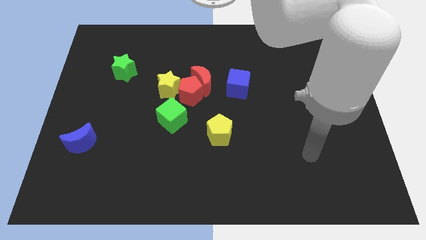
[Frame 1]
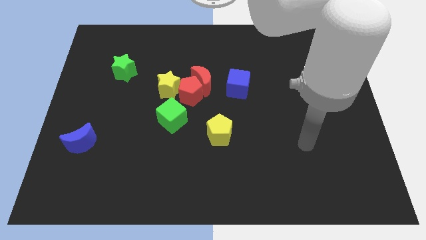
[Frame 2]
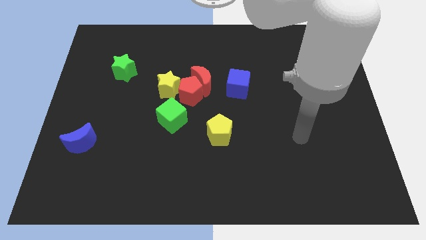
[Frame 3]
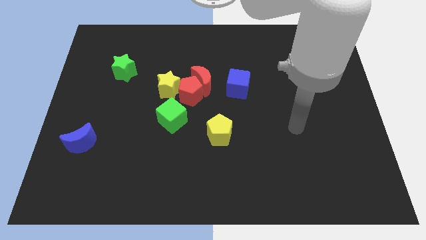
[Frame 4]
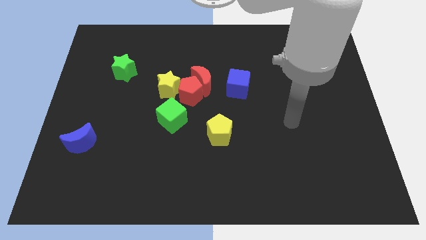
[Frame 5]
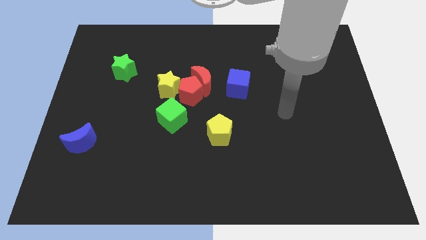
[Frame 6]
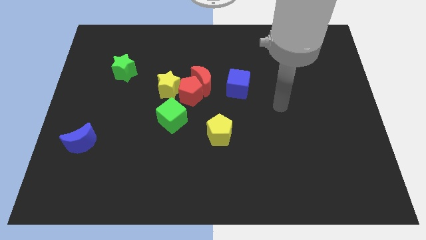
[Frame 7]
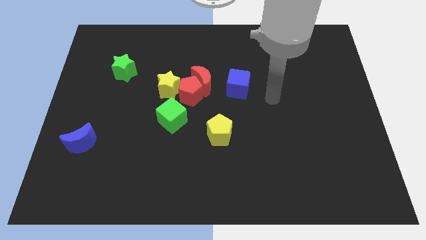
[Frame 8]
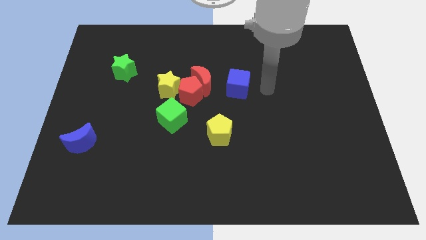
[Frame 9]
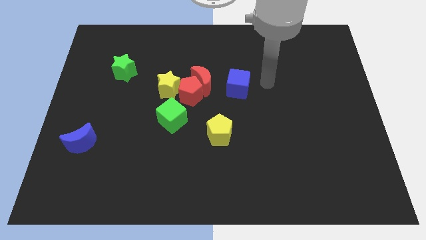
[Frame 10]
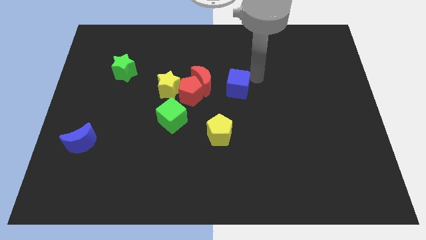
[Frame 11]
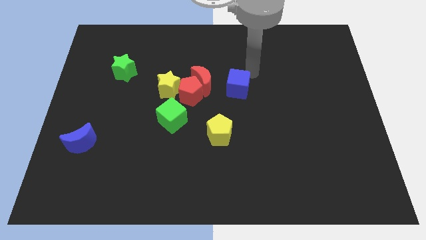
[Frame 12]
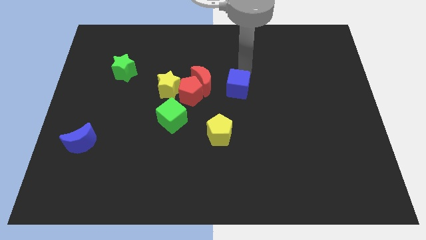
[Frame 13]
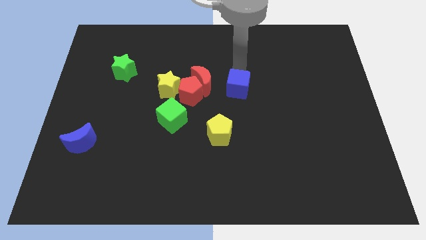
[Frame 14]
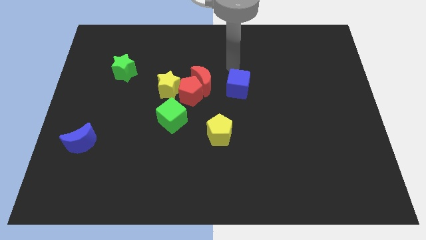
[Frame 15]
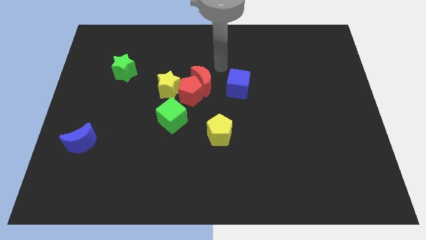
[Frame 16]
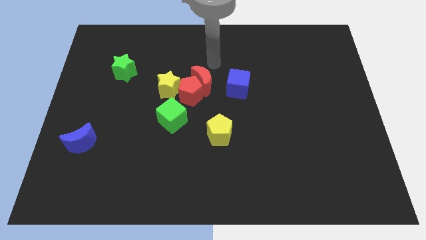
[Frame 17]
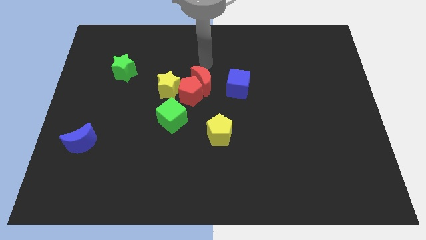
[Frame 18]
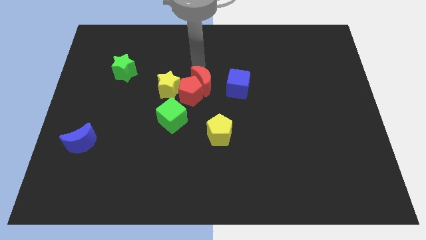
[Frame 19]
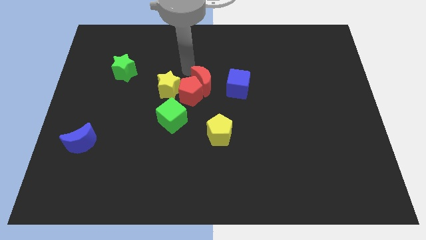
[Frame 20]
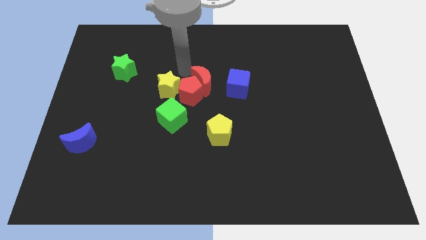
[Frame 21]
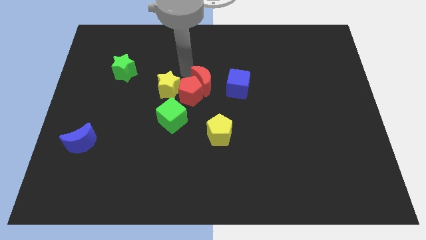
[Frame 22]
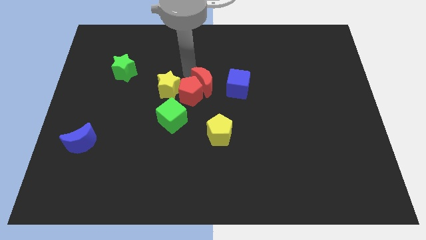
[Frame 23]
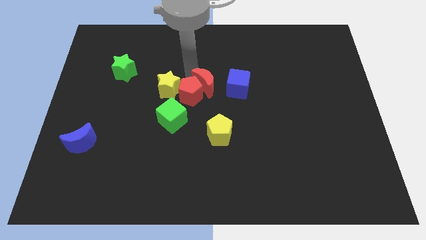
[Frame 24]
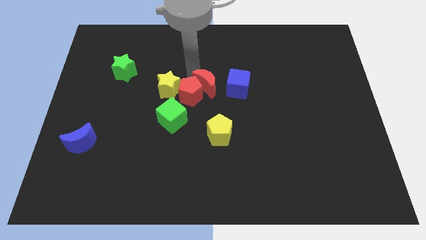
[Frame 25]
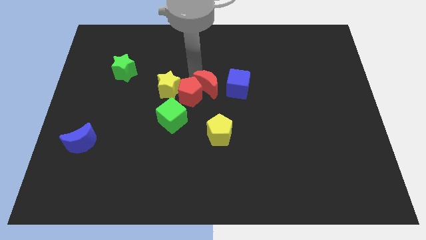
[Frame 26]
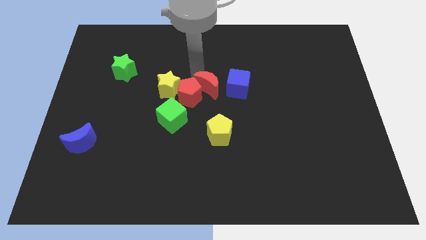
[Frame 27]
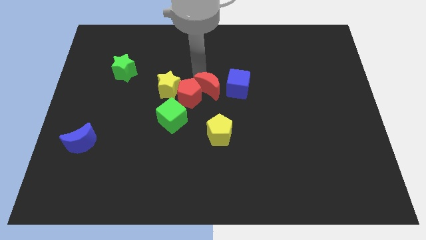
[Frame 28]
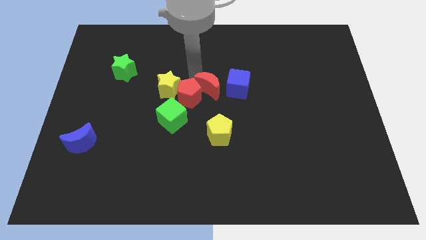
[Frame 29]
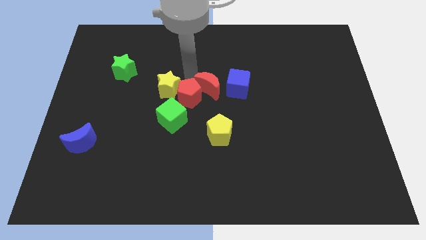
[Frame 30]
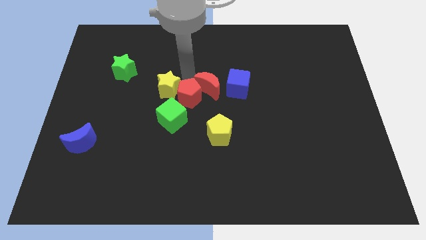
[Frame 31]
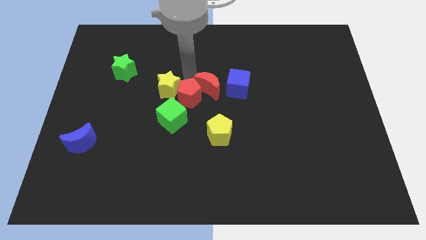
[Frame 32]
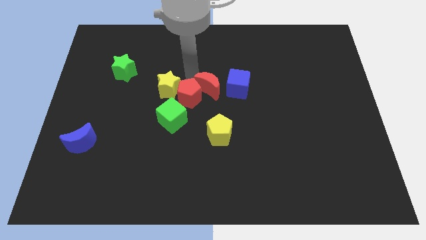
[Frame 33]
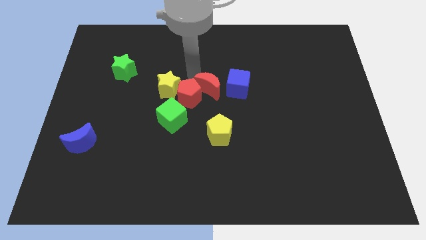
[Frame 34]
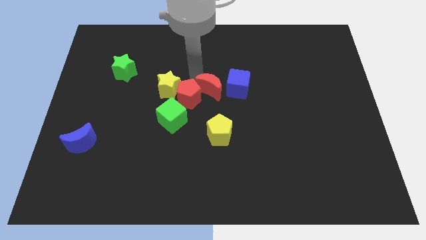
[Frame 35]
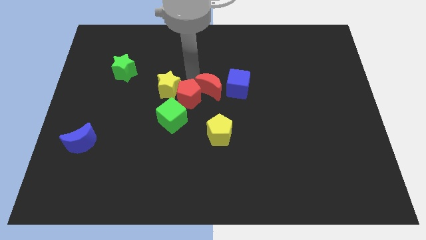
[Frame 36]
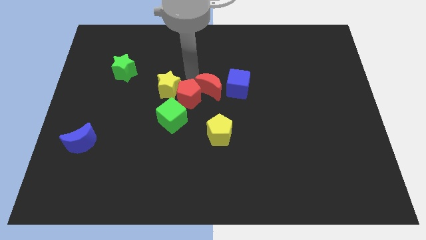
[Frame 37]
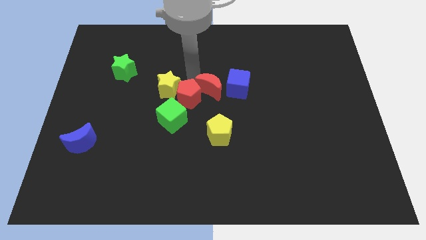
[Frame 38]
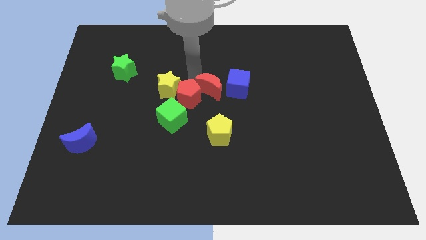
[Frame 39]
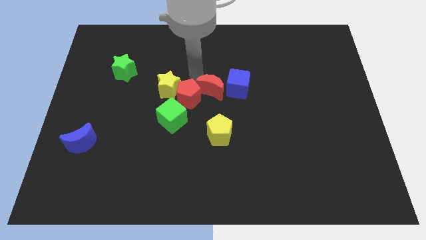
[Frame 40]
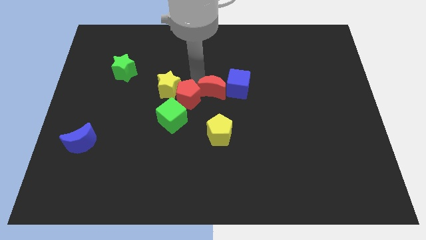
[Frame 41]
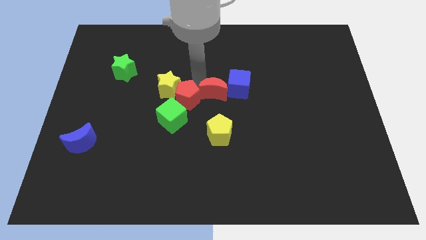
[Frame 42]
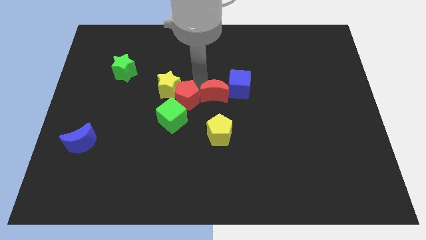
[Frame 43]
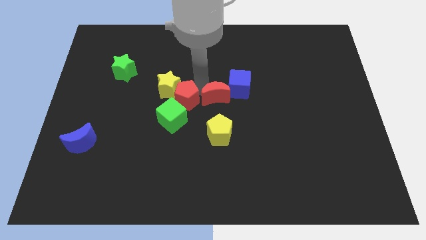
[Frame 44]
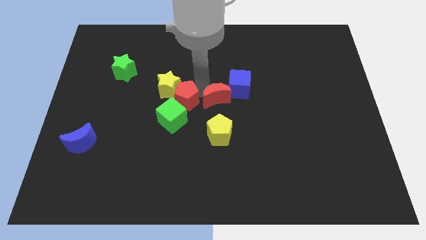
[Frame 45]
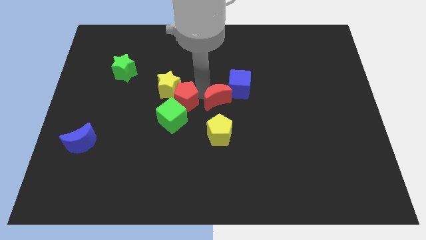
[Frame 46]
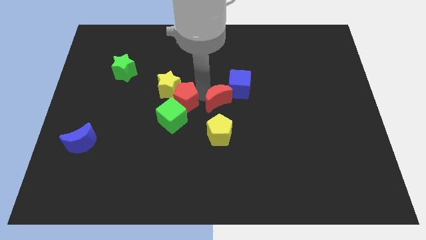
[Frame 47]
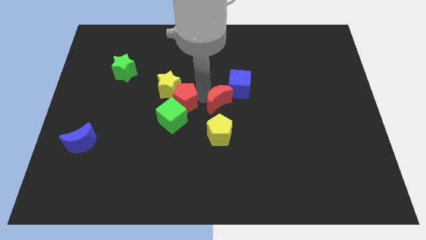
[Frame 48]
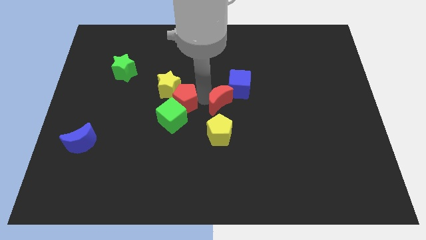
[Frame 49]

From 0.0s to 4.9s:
move the red moon diagonally downwards and to the right somewhat

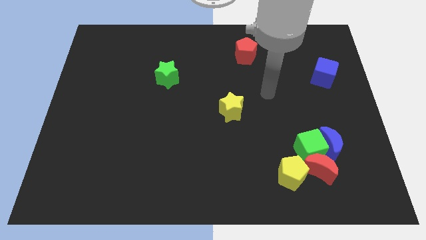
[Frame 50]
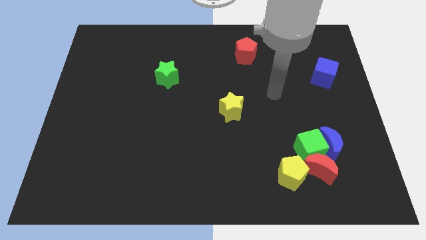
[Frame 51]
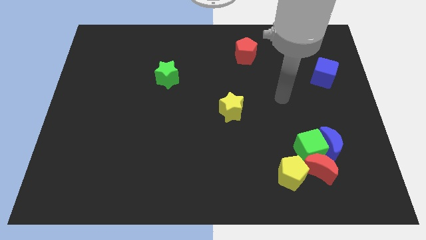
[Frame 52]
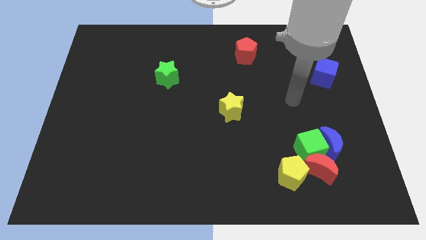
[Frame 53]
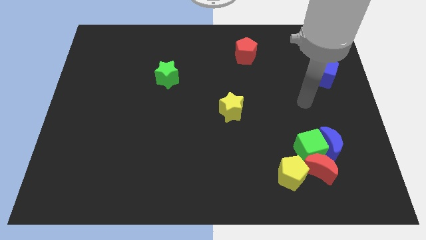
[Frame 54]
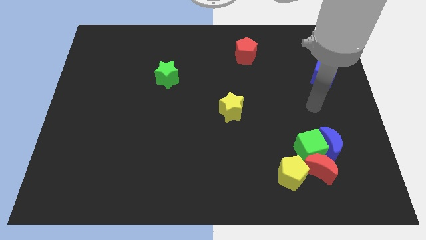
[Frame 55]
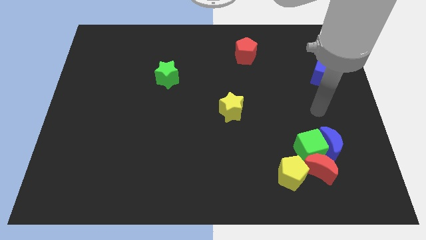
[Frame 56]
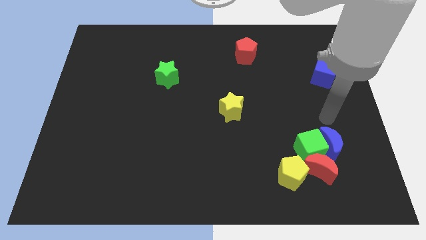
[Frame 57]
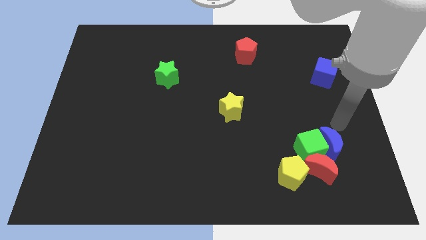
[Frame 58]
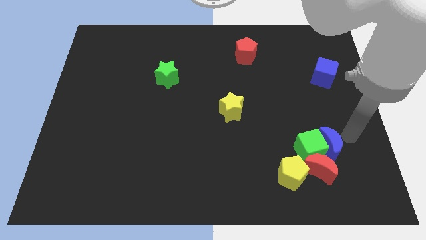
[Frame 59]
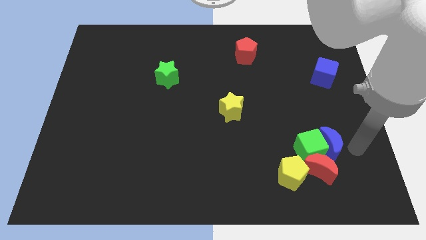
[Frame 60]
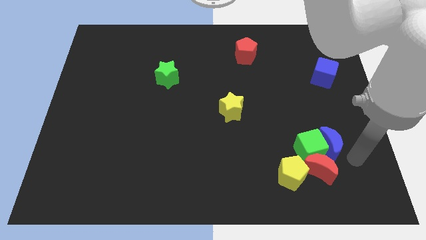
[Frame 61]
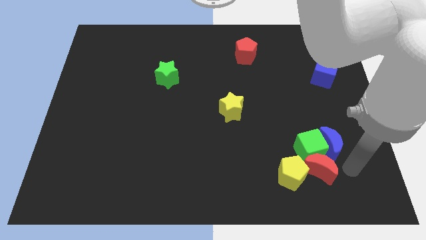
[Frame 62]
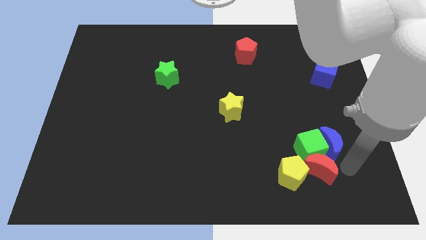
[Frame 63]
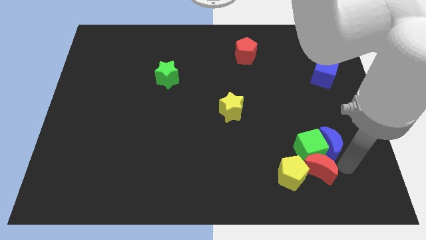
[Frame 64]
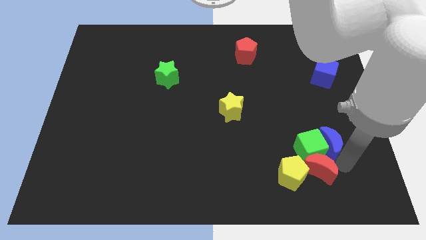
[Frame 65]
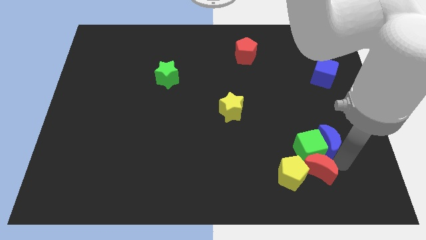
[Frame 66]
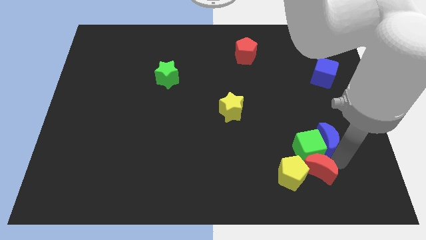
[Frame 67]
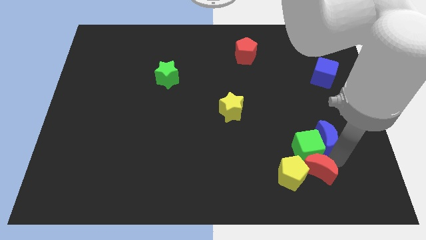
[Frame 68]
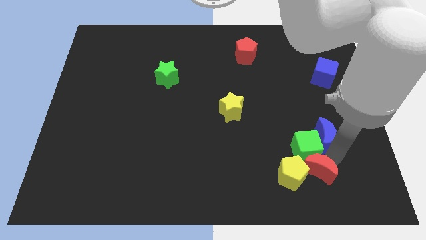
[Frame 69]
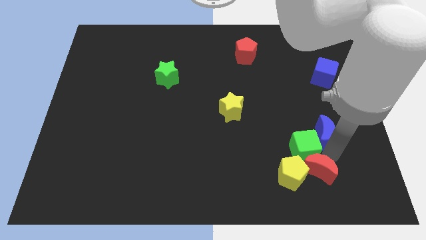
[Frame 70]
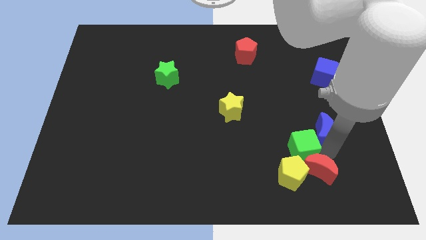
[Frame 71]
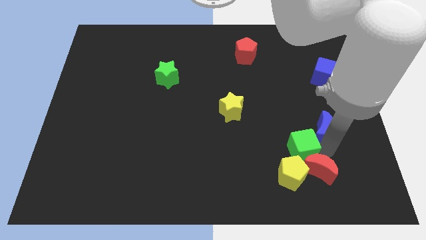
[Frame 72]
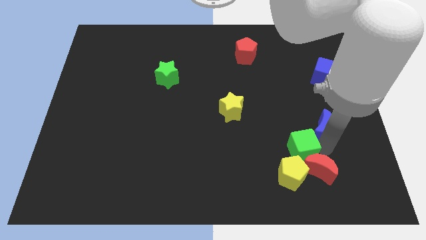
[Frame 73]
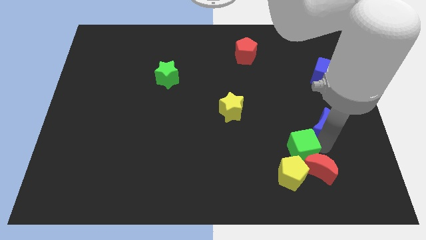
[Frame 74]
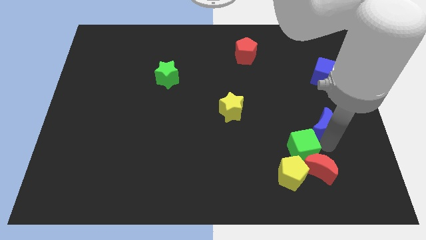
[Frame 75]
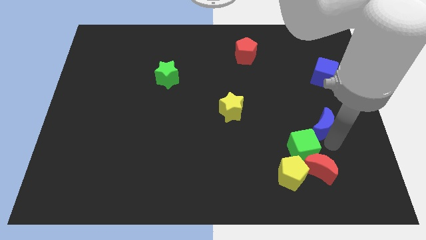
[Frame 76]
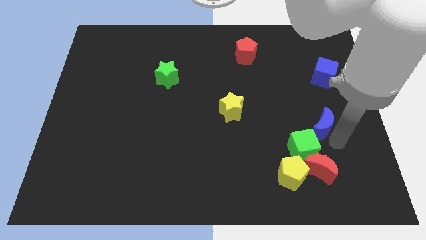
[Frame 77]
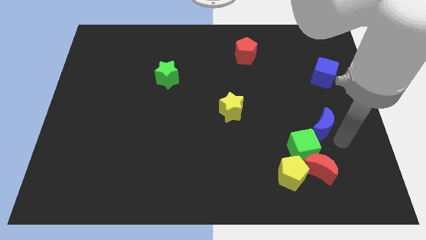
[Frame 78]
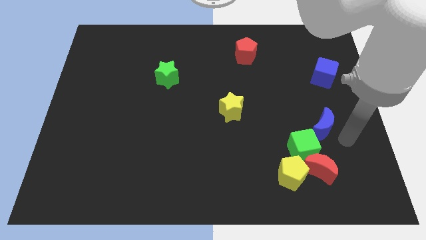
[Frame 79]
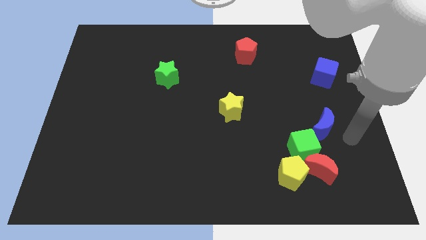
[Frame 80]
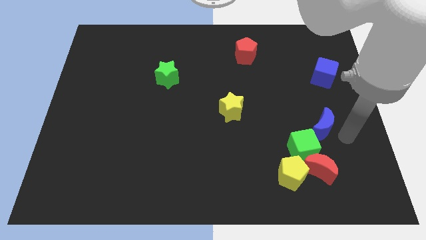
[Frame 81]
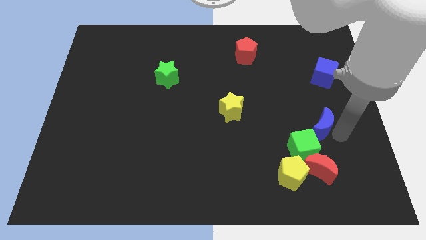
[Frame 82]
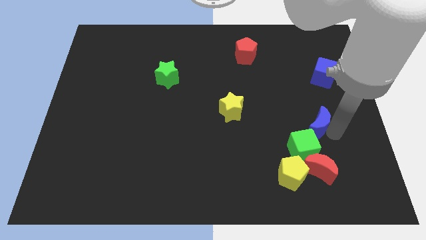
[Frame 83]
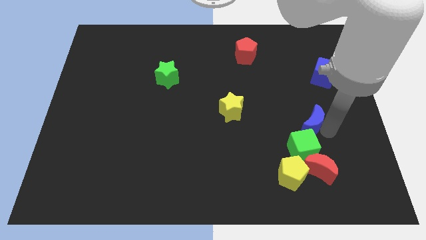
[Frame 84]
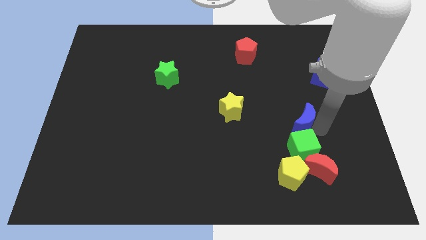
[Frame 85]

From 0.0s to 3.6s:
push the blue moon a little bit up and left
